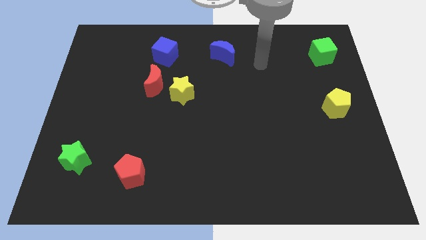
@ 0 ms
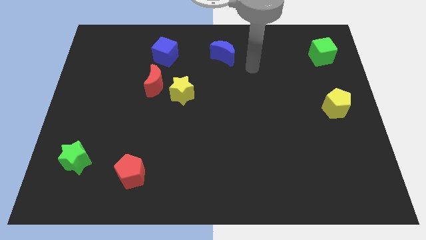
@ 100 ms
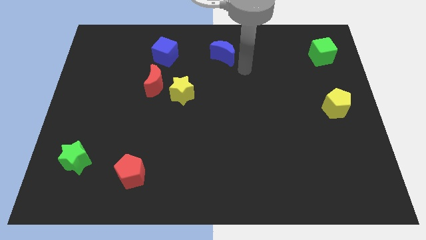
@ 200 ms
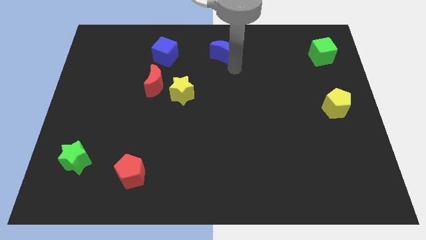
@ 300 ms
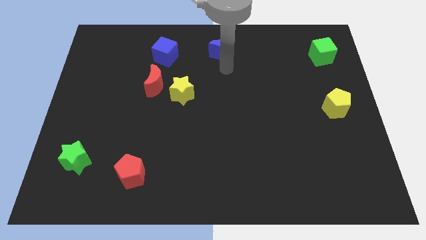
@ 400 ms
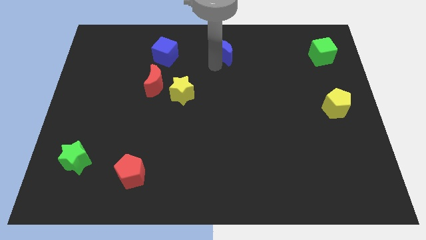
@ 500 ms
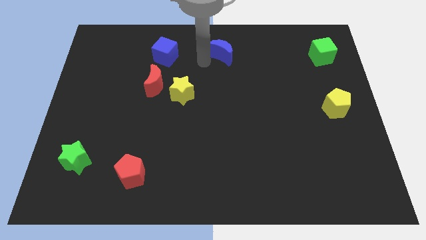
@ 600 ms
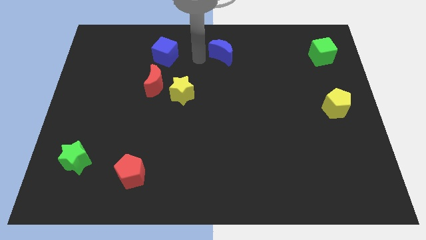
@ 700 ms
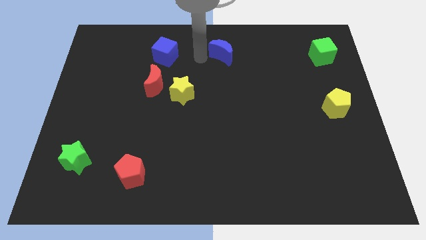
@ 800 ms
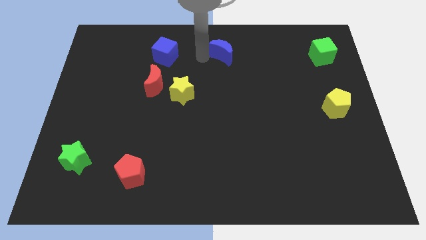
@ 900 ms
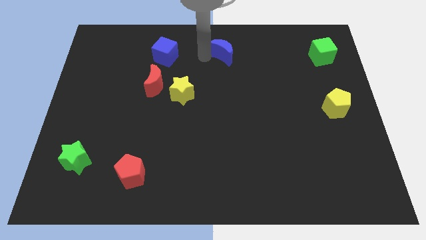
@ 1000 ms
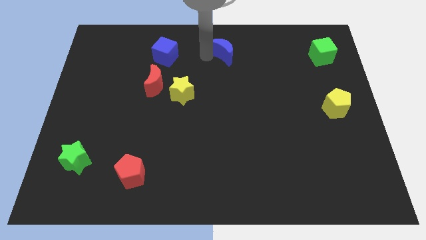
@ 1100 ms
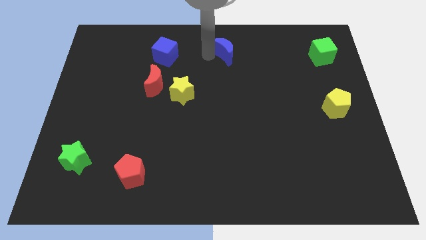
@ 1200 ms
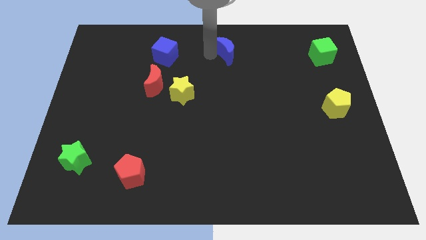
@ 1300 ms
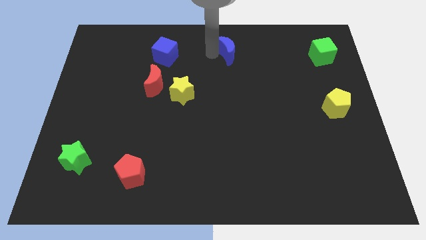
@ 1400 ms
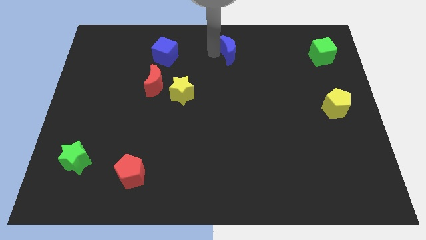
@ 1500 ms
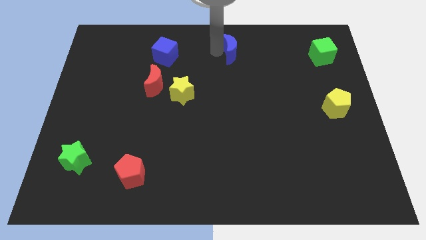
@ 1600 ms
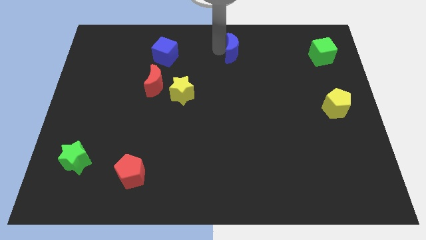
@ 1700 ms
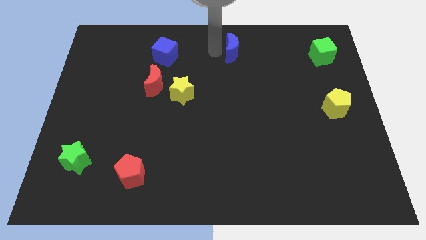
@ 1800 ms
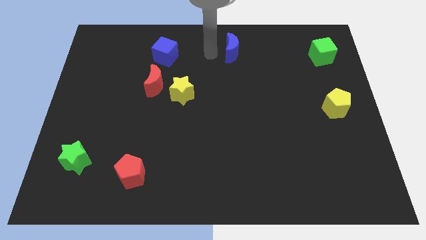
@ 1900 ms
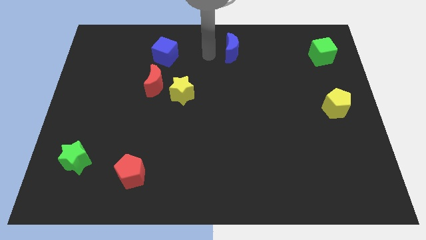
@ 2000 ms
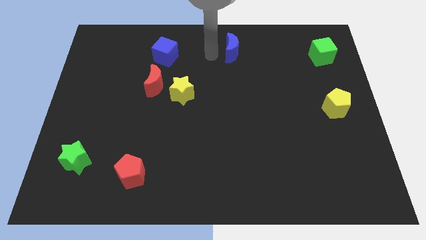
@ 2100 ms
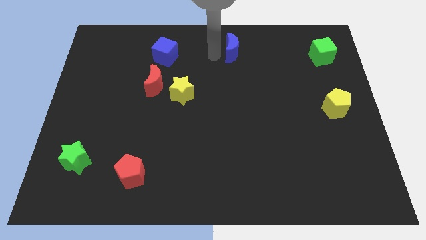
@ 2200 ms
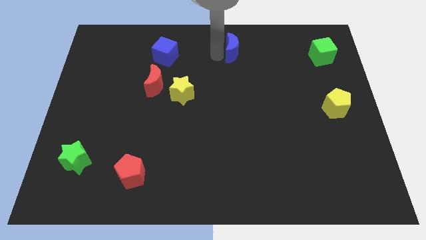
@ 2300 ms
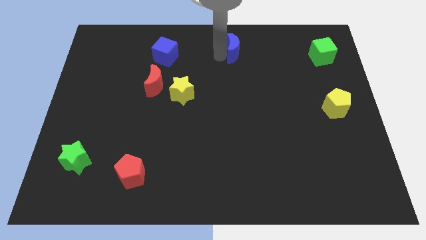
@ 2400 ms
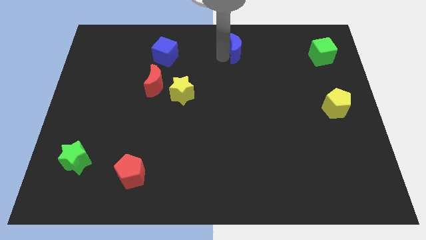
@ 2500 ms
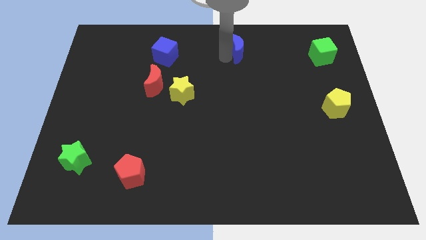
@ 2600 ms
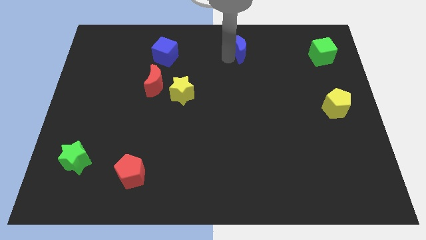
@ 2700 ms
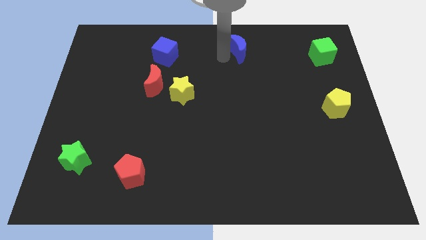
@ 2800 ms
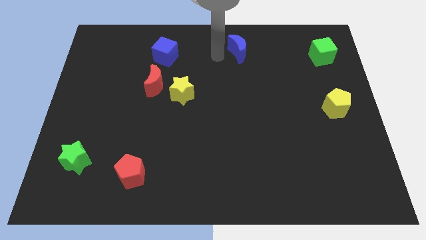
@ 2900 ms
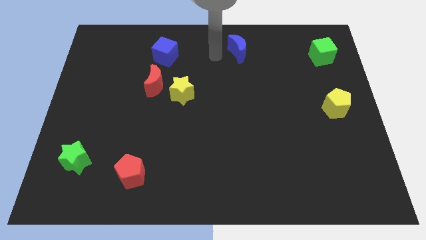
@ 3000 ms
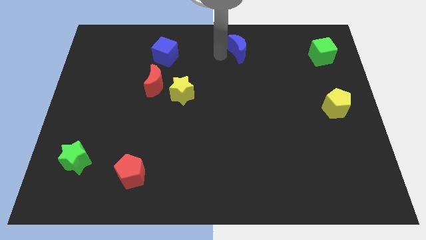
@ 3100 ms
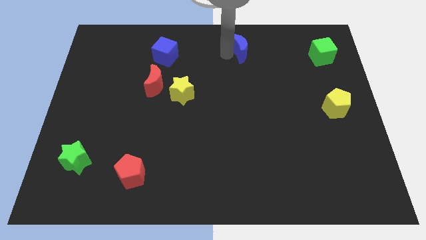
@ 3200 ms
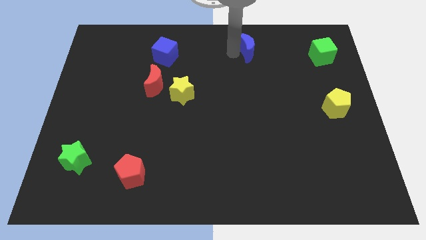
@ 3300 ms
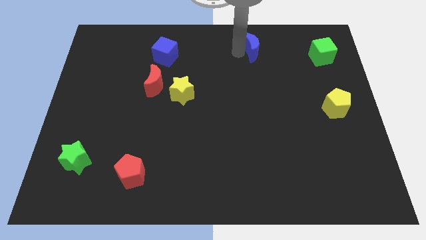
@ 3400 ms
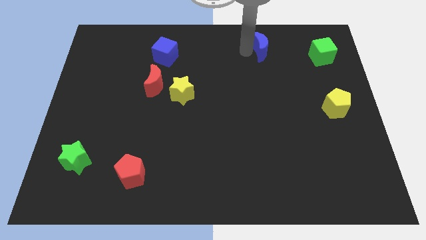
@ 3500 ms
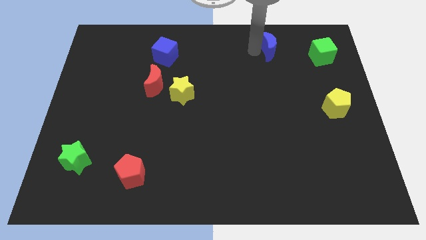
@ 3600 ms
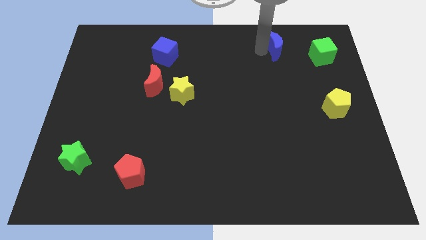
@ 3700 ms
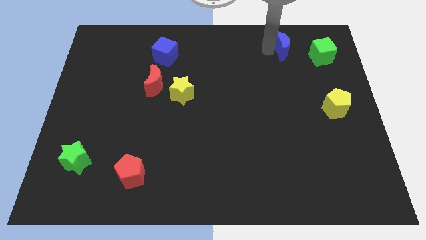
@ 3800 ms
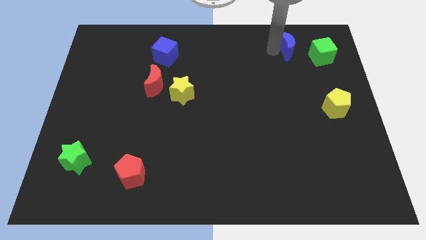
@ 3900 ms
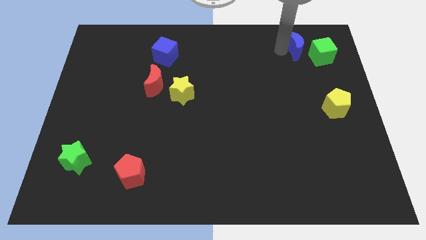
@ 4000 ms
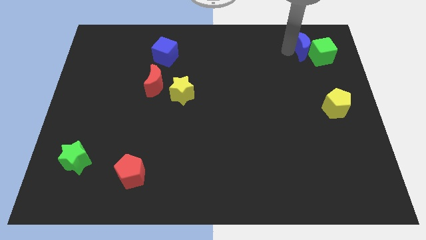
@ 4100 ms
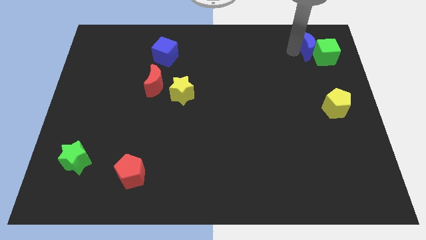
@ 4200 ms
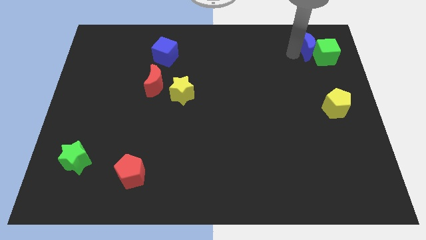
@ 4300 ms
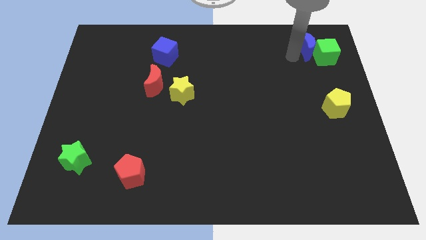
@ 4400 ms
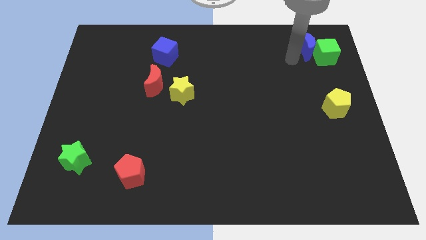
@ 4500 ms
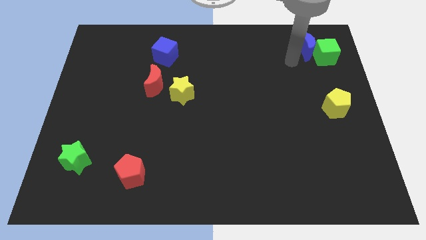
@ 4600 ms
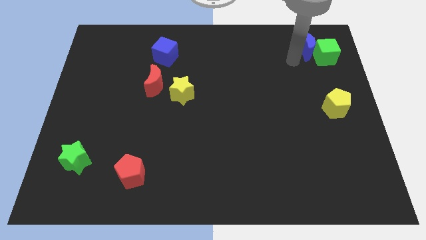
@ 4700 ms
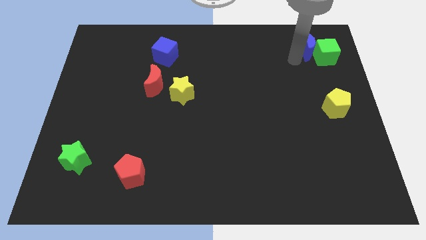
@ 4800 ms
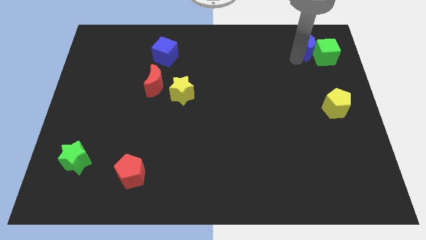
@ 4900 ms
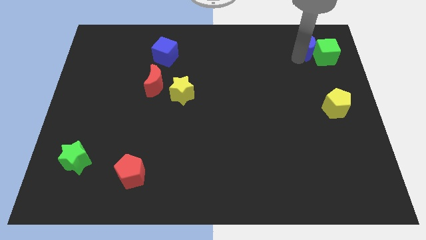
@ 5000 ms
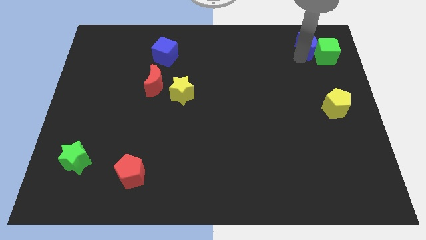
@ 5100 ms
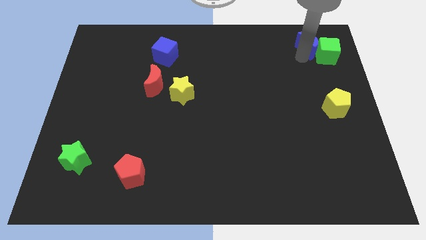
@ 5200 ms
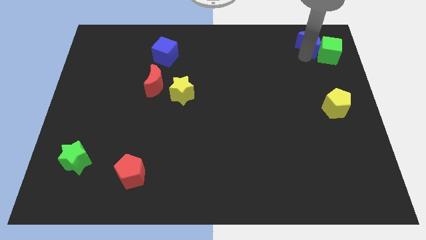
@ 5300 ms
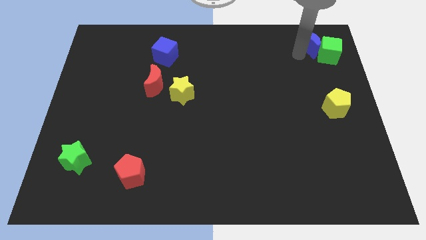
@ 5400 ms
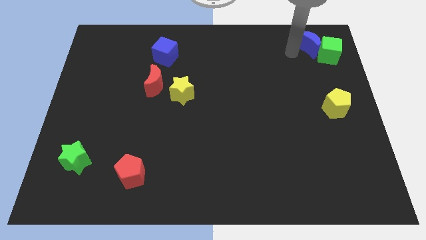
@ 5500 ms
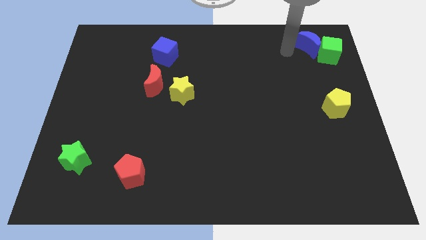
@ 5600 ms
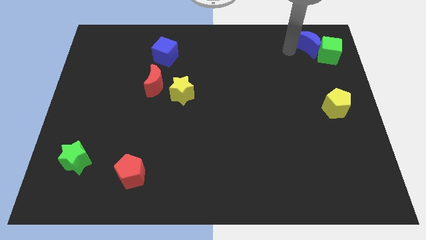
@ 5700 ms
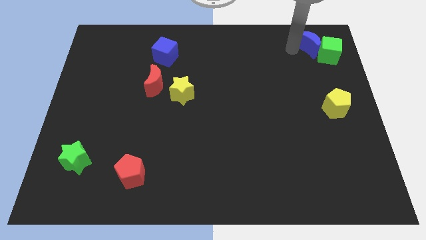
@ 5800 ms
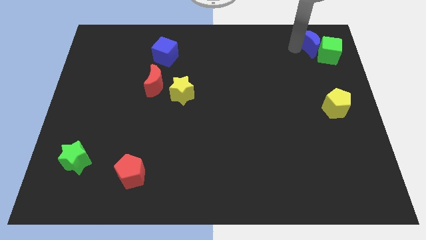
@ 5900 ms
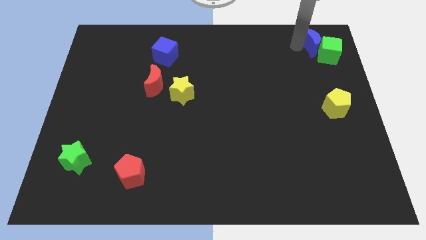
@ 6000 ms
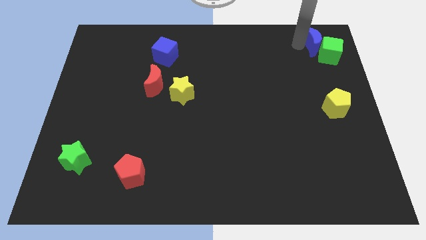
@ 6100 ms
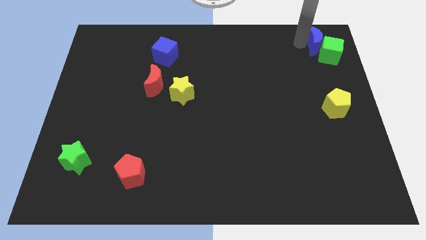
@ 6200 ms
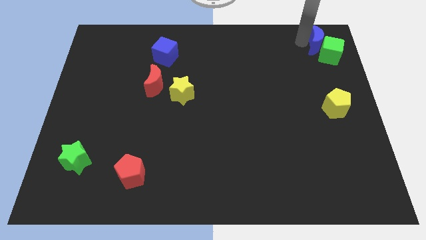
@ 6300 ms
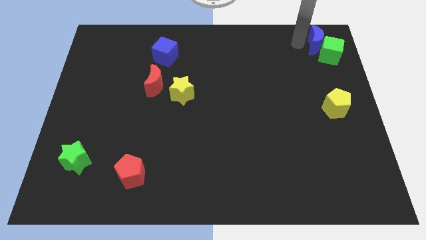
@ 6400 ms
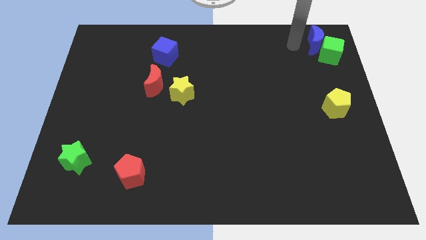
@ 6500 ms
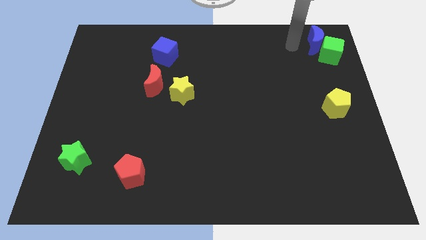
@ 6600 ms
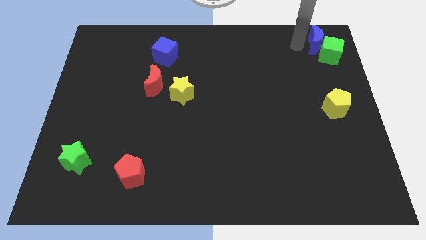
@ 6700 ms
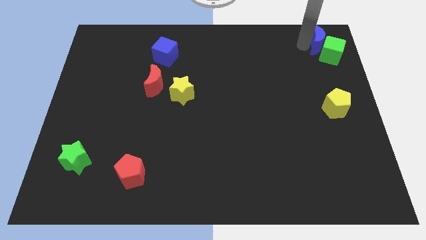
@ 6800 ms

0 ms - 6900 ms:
put the blue moon to the top right

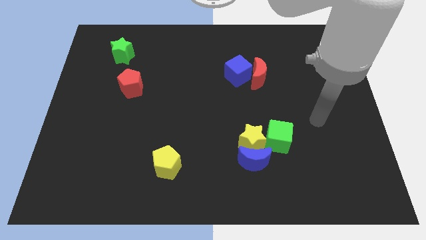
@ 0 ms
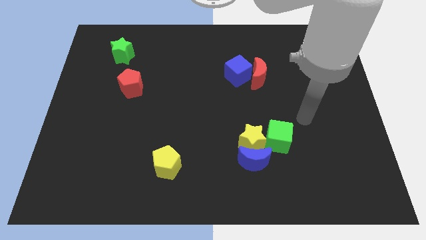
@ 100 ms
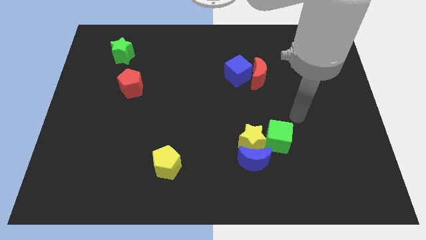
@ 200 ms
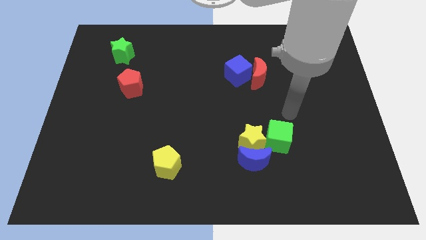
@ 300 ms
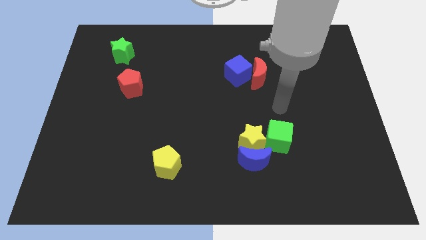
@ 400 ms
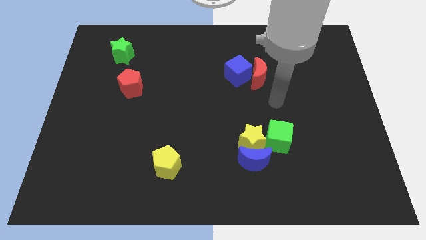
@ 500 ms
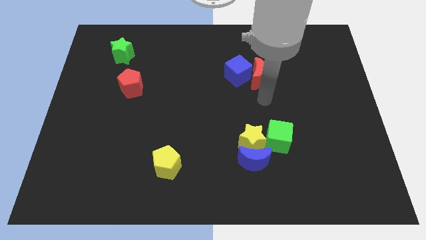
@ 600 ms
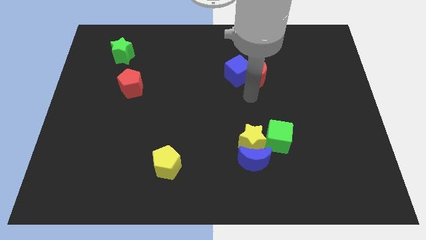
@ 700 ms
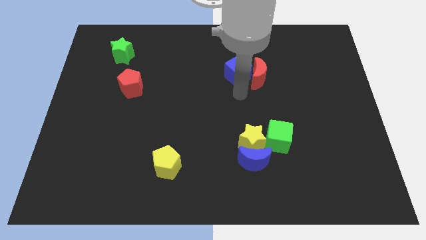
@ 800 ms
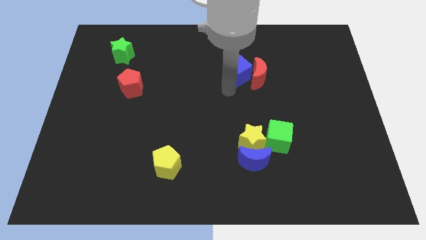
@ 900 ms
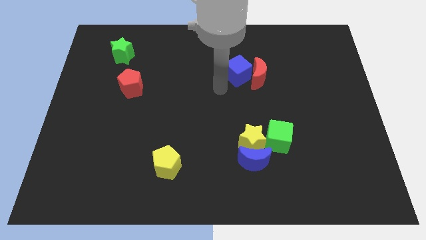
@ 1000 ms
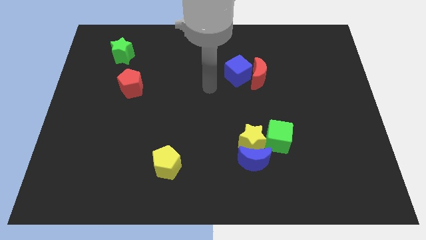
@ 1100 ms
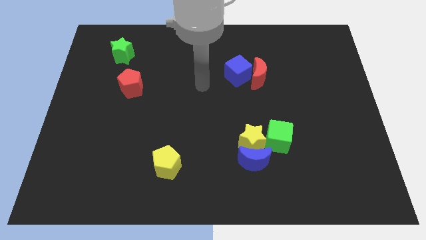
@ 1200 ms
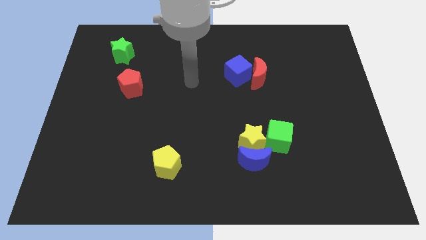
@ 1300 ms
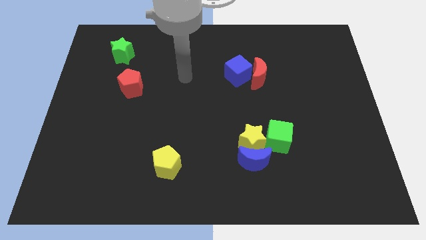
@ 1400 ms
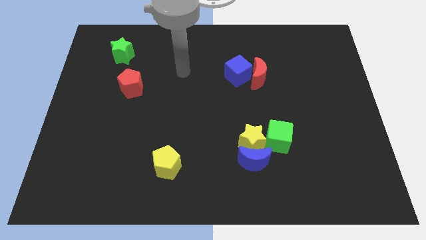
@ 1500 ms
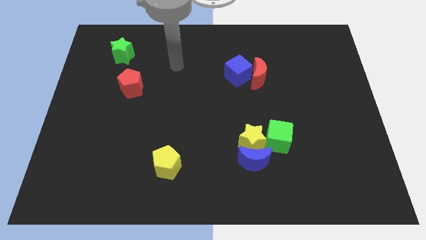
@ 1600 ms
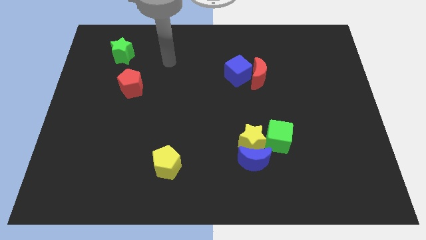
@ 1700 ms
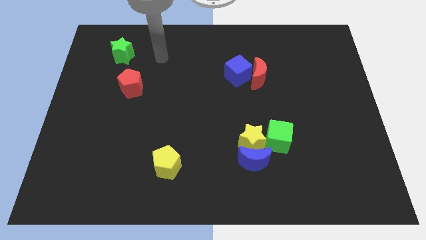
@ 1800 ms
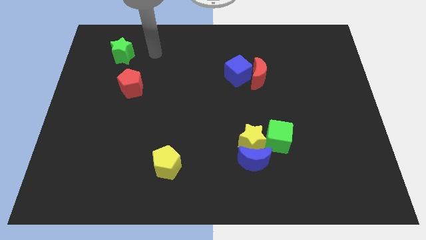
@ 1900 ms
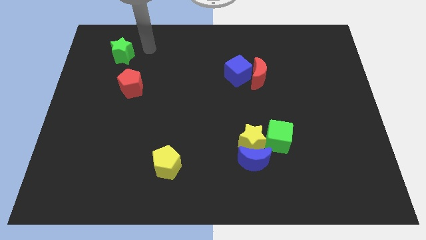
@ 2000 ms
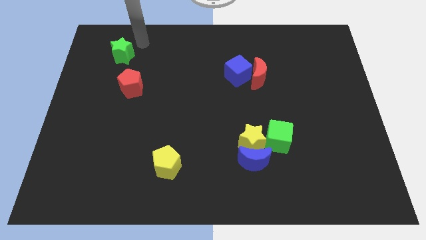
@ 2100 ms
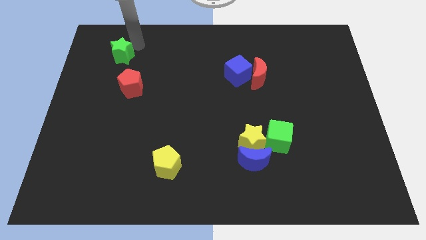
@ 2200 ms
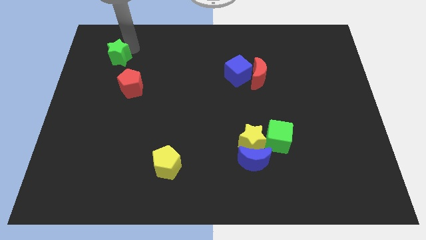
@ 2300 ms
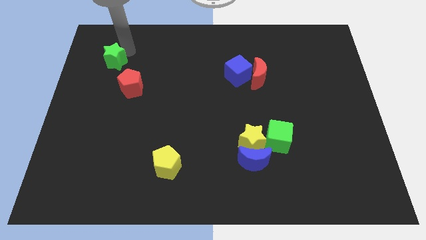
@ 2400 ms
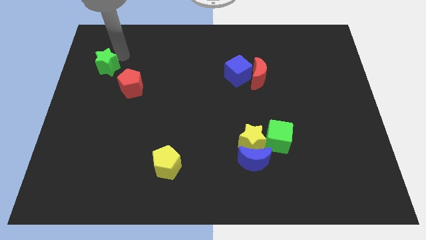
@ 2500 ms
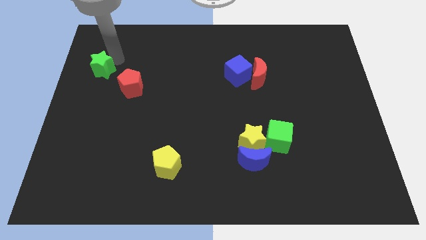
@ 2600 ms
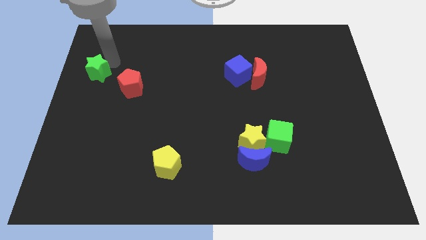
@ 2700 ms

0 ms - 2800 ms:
slide the green star to the center left
